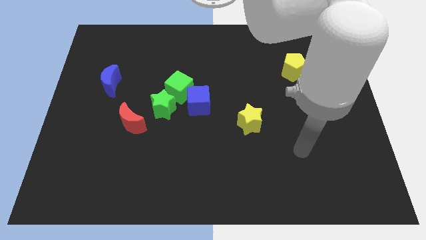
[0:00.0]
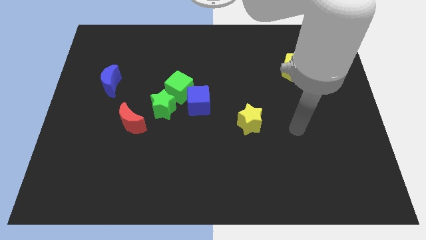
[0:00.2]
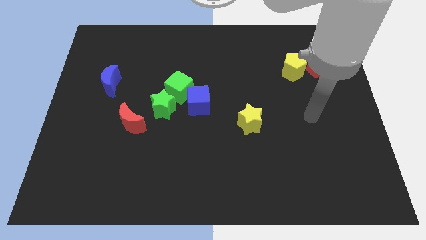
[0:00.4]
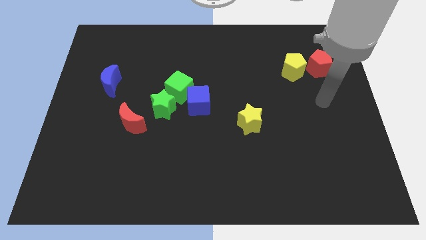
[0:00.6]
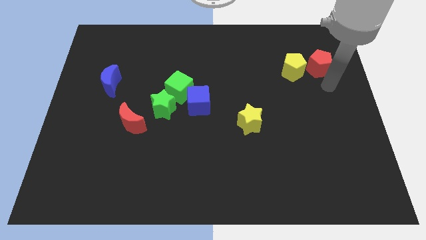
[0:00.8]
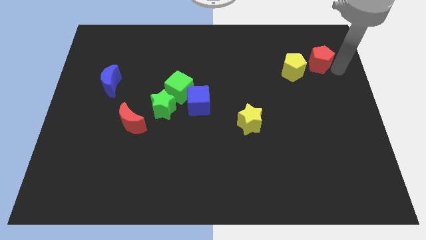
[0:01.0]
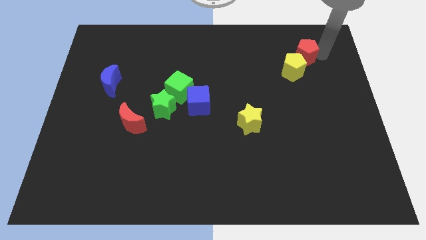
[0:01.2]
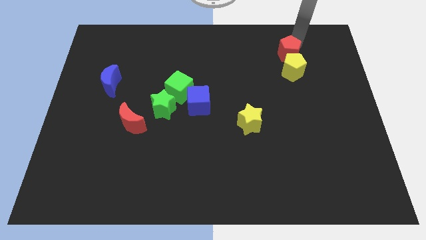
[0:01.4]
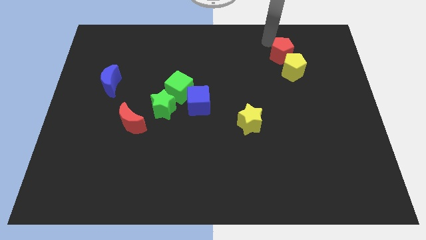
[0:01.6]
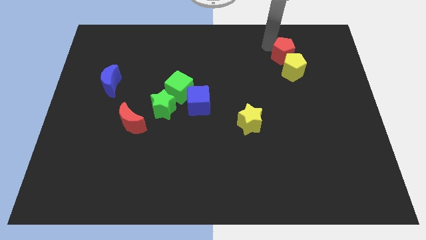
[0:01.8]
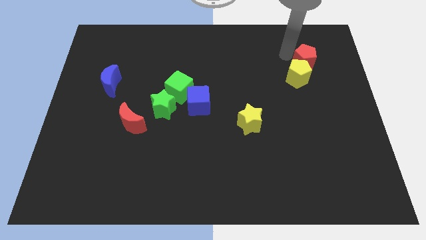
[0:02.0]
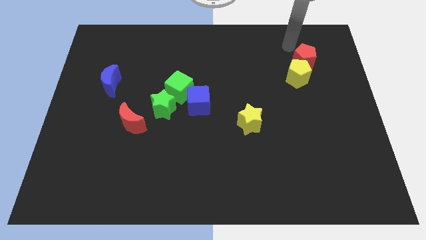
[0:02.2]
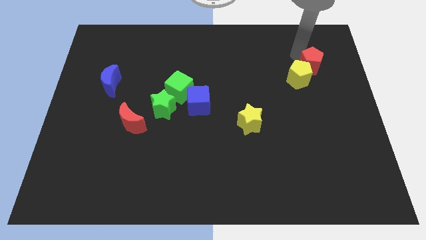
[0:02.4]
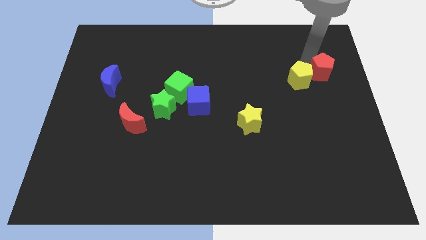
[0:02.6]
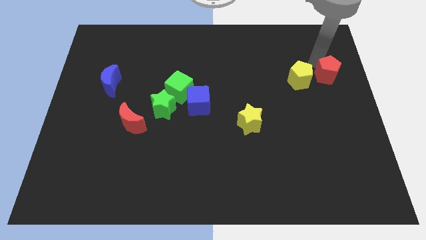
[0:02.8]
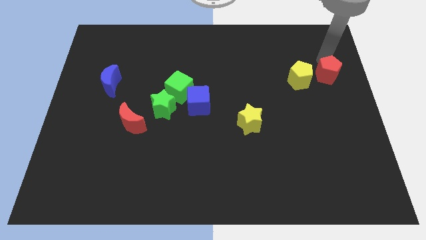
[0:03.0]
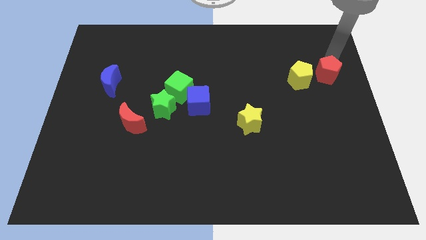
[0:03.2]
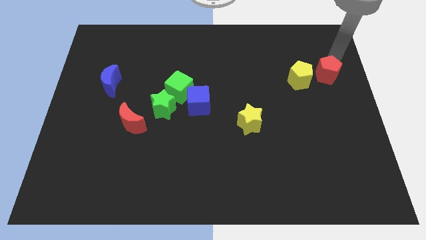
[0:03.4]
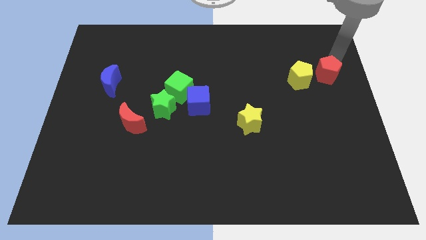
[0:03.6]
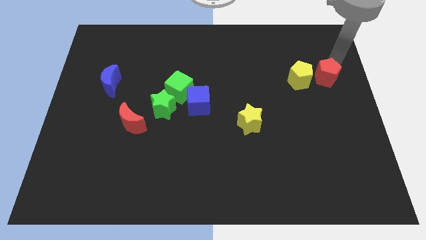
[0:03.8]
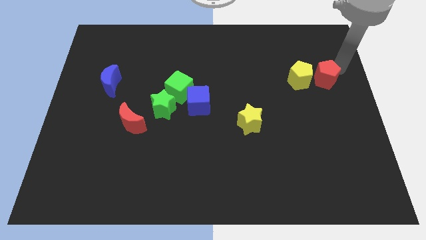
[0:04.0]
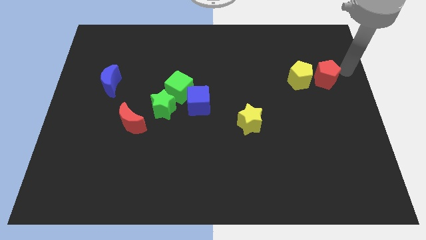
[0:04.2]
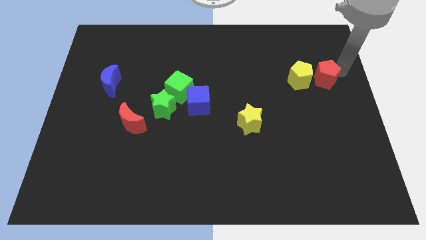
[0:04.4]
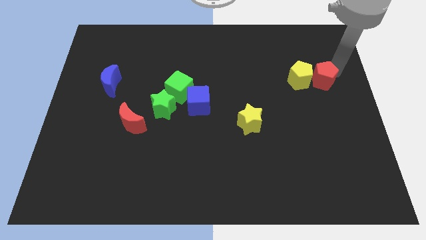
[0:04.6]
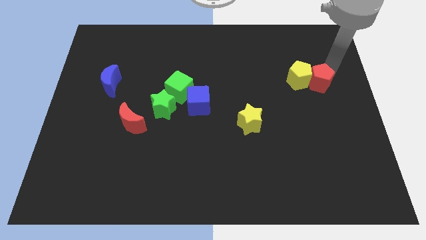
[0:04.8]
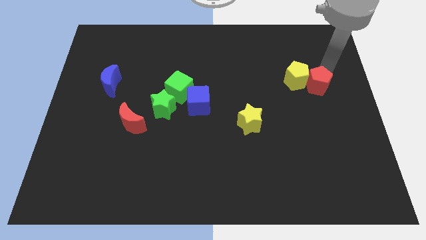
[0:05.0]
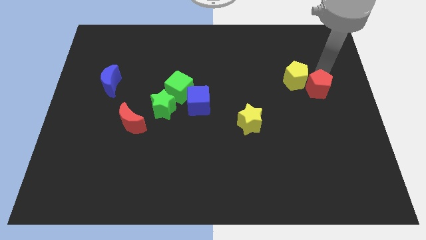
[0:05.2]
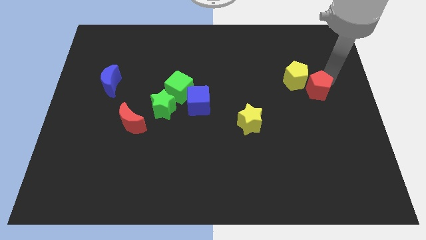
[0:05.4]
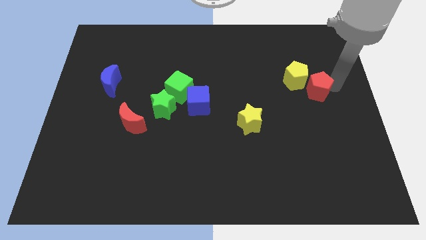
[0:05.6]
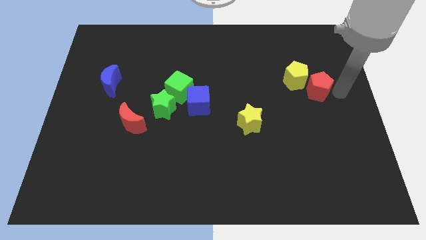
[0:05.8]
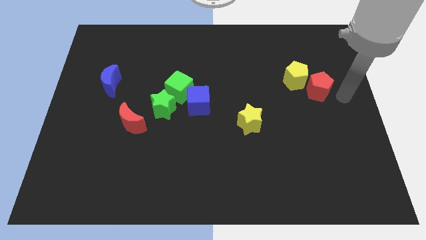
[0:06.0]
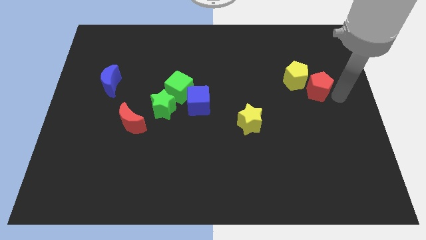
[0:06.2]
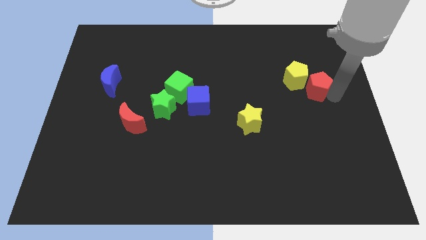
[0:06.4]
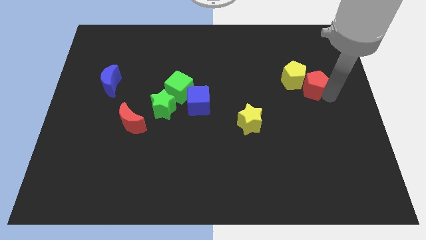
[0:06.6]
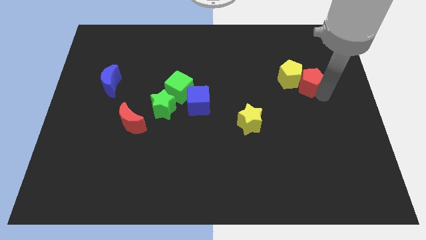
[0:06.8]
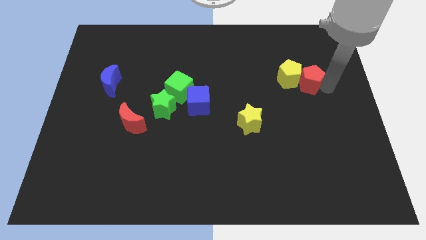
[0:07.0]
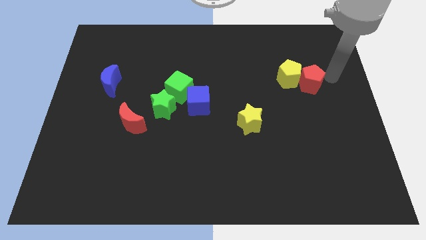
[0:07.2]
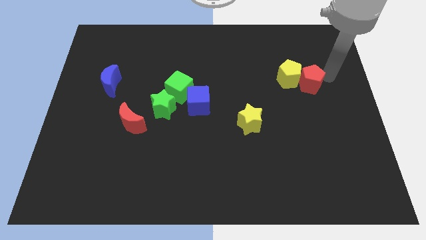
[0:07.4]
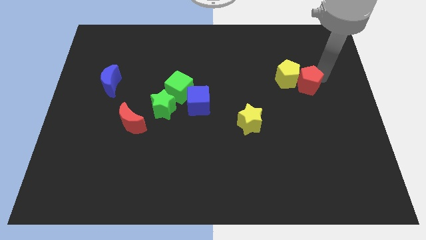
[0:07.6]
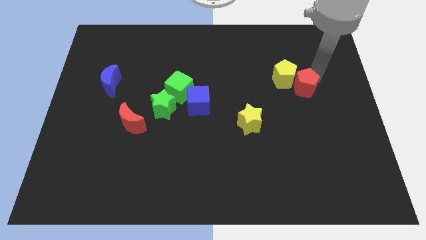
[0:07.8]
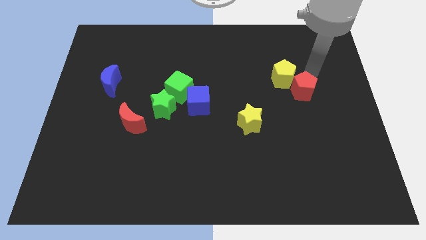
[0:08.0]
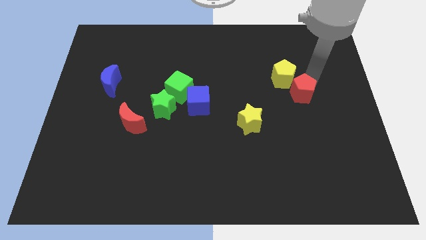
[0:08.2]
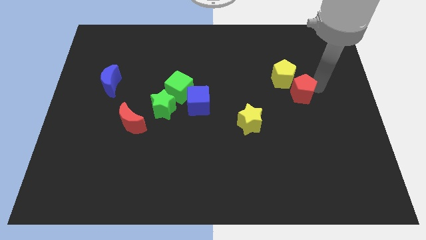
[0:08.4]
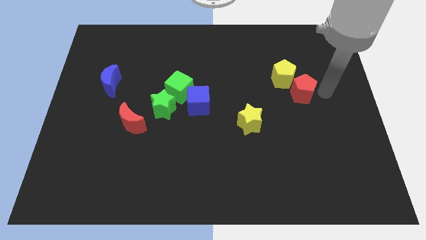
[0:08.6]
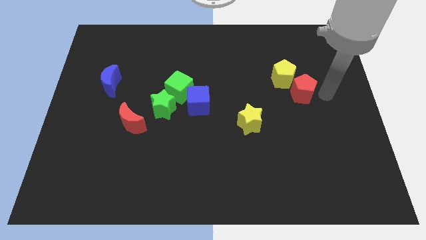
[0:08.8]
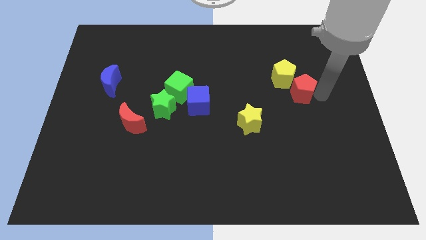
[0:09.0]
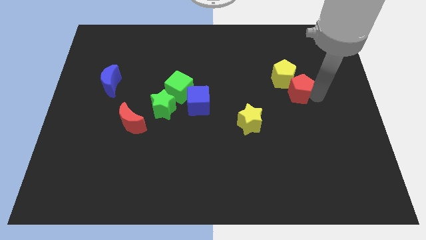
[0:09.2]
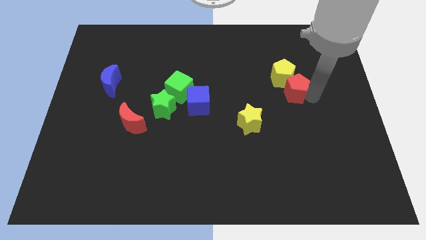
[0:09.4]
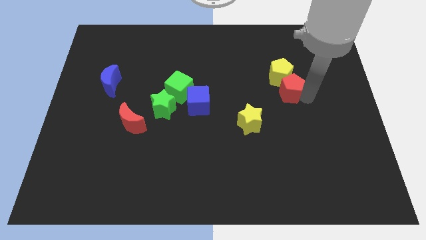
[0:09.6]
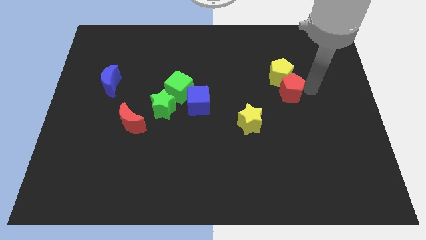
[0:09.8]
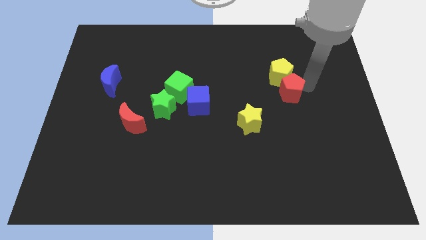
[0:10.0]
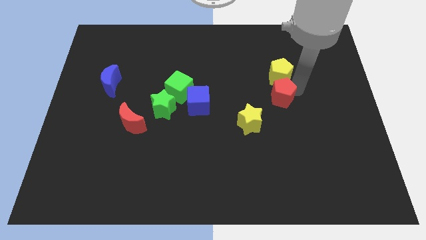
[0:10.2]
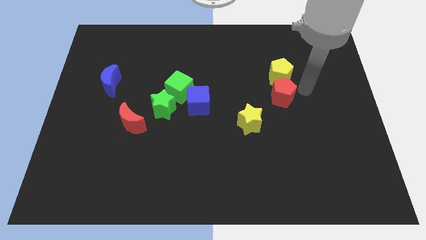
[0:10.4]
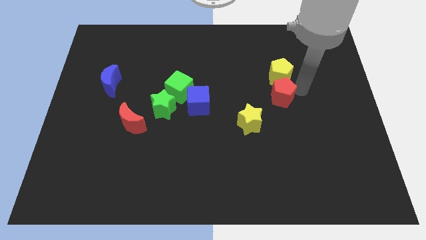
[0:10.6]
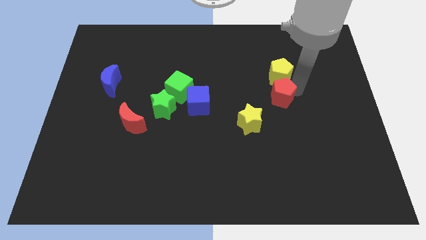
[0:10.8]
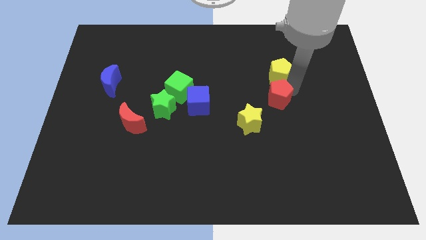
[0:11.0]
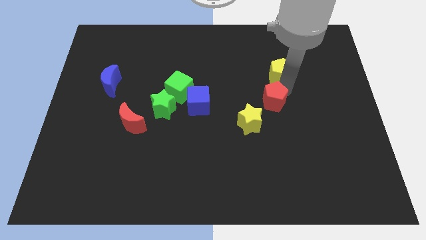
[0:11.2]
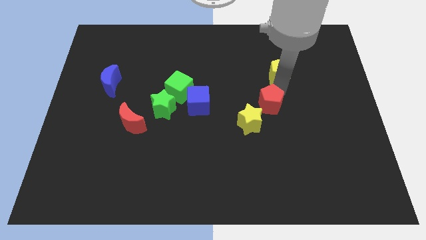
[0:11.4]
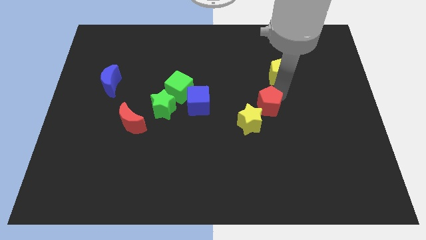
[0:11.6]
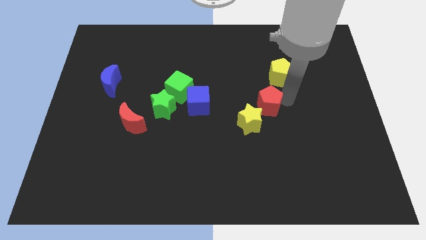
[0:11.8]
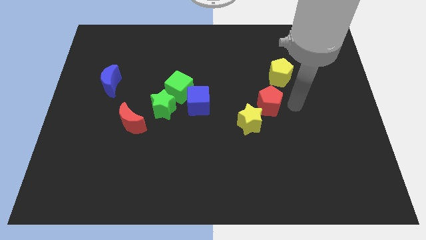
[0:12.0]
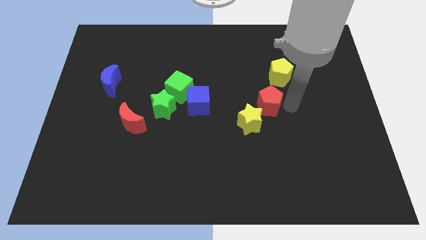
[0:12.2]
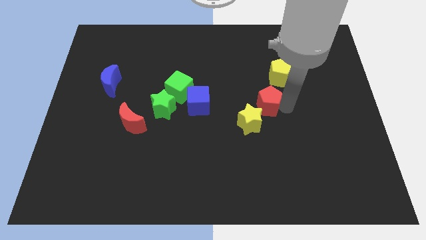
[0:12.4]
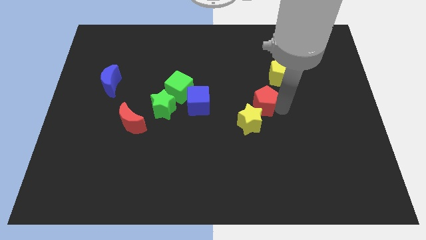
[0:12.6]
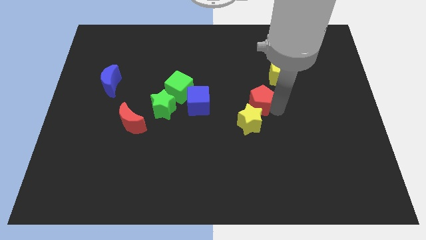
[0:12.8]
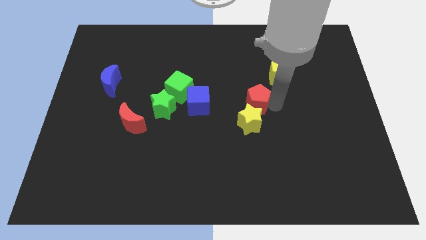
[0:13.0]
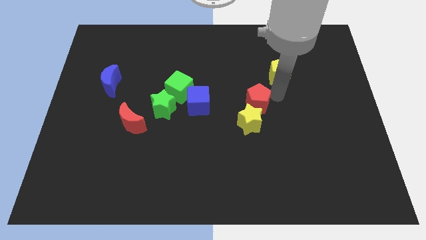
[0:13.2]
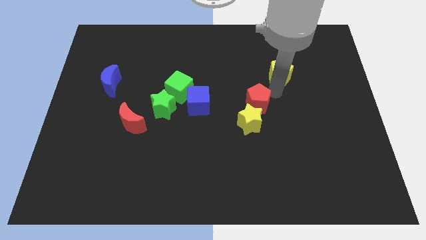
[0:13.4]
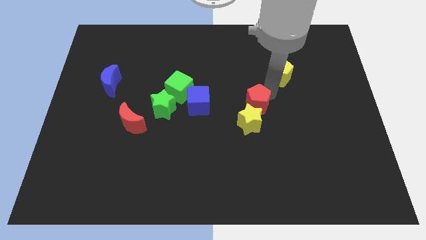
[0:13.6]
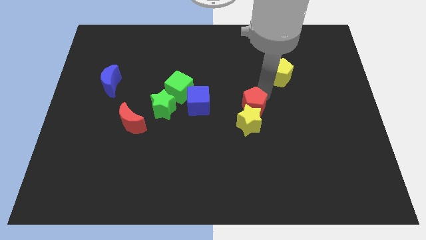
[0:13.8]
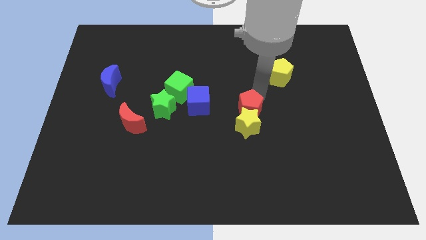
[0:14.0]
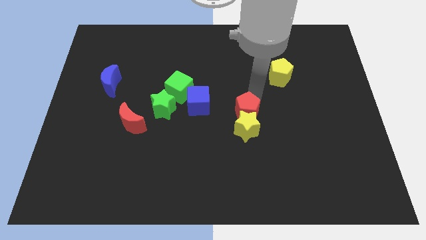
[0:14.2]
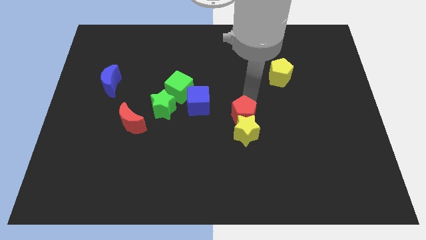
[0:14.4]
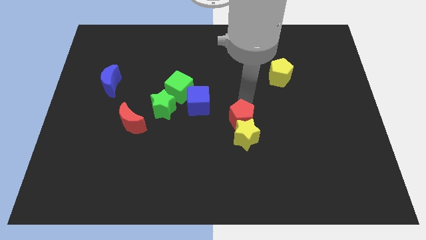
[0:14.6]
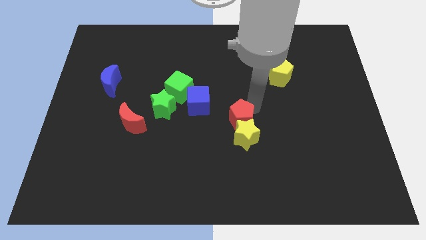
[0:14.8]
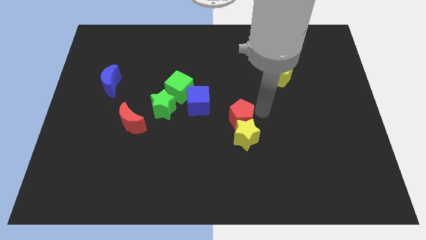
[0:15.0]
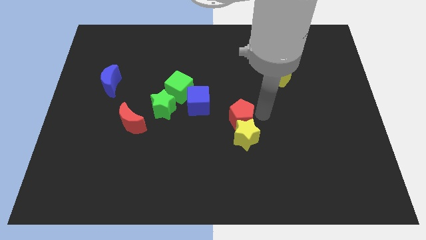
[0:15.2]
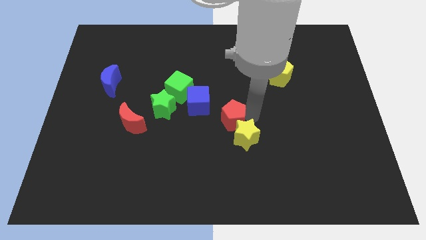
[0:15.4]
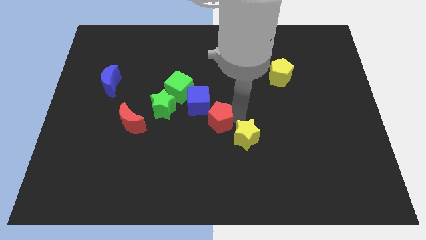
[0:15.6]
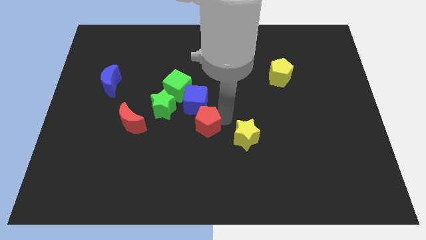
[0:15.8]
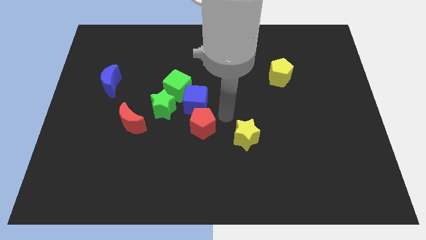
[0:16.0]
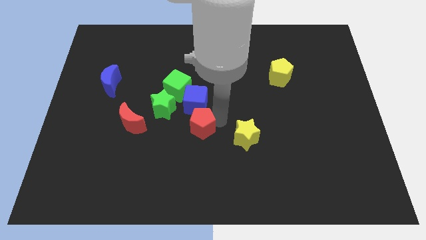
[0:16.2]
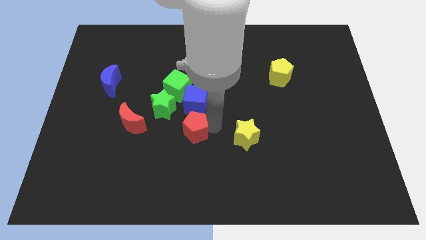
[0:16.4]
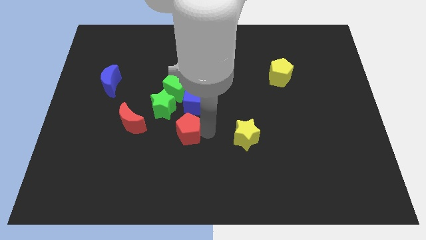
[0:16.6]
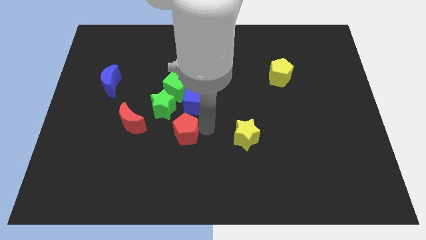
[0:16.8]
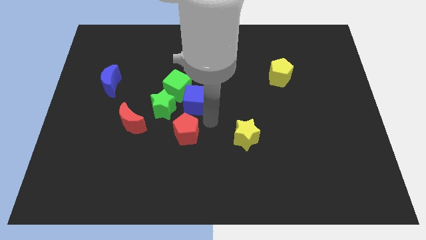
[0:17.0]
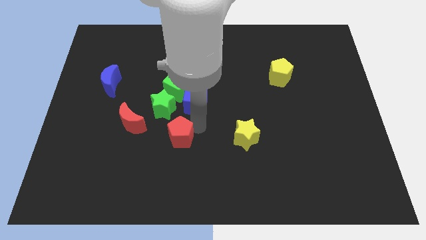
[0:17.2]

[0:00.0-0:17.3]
push the red pentagon to the bottom of the green star
